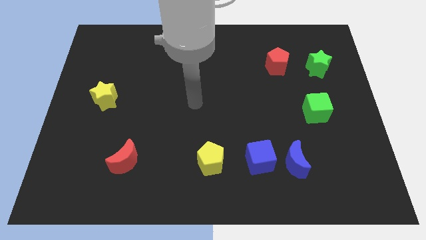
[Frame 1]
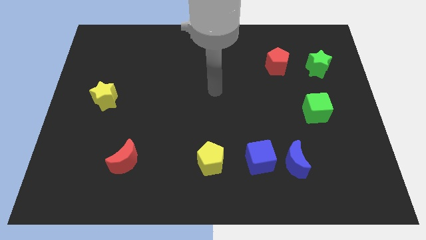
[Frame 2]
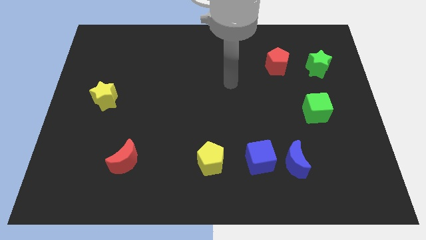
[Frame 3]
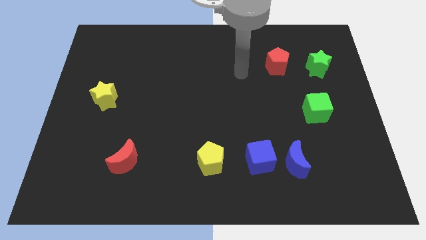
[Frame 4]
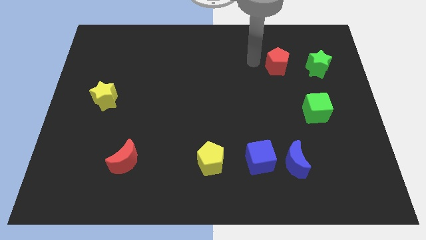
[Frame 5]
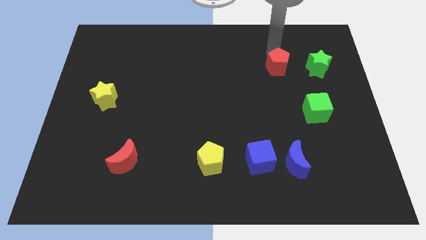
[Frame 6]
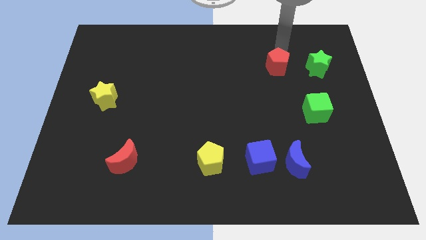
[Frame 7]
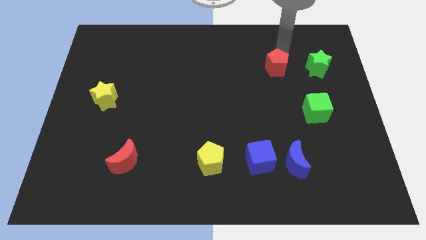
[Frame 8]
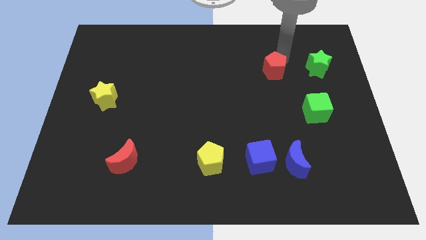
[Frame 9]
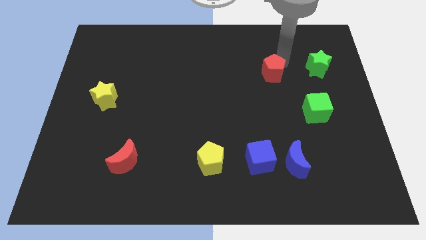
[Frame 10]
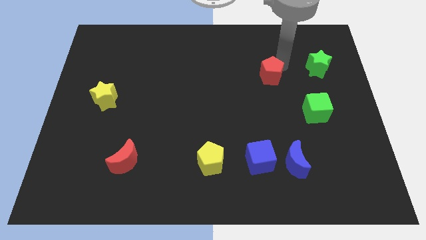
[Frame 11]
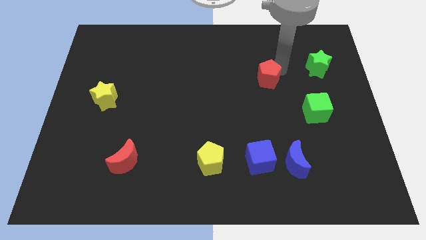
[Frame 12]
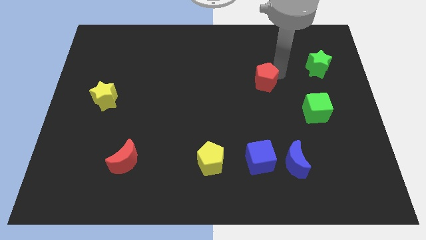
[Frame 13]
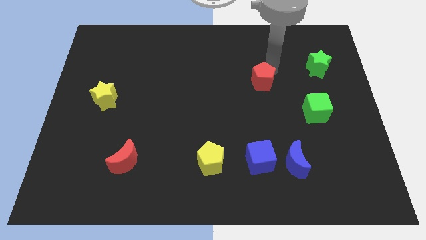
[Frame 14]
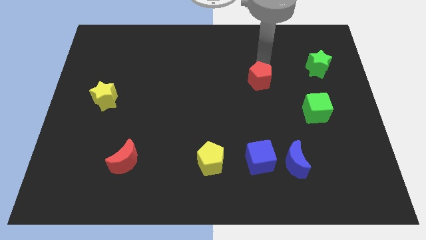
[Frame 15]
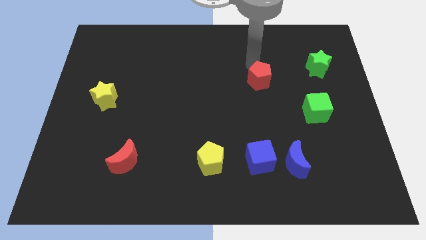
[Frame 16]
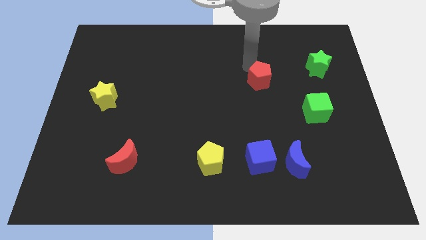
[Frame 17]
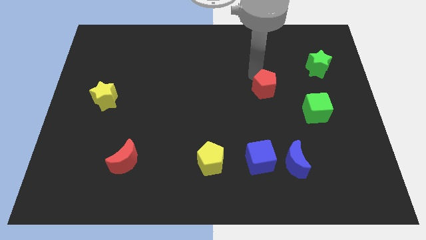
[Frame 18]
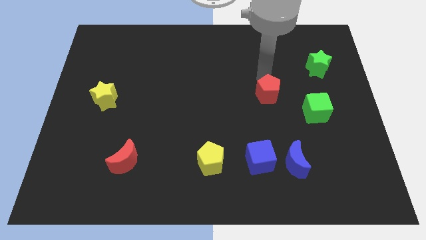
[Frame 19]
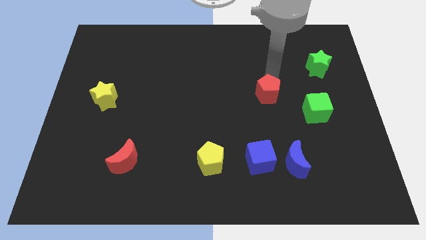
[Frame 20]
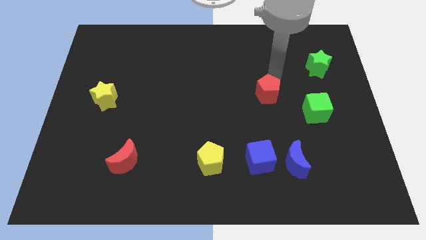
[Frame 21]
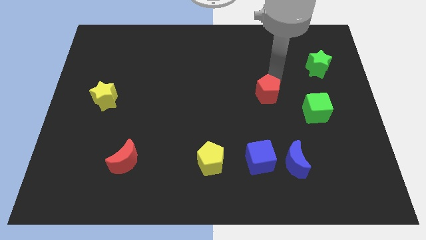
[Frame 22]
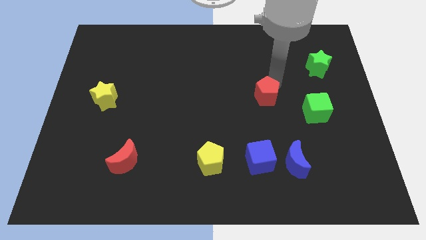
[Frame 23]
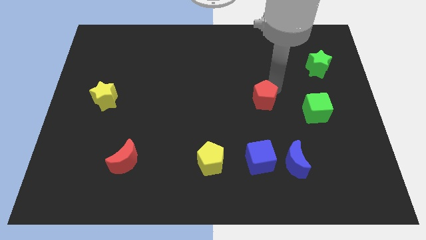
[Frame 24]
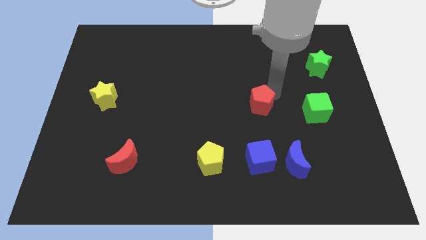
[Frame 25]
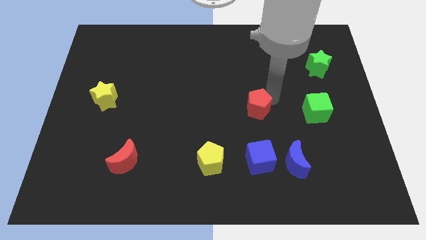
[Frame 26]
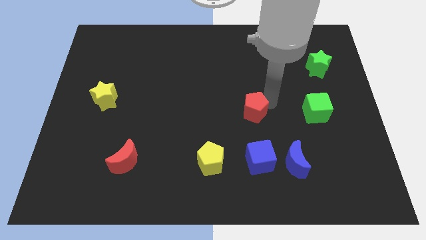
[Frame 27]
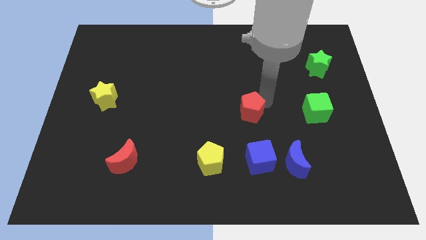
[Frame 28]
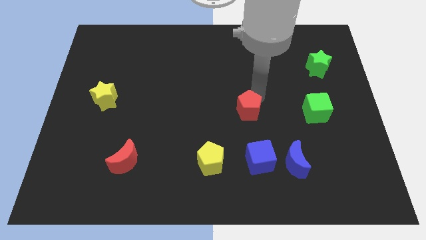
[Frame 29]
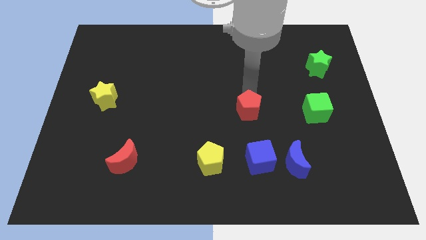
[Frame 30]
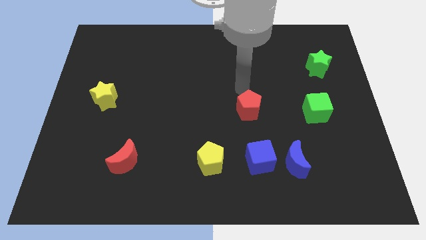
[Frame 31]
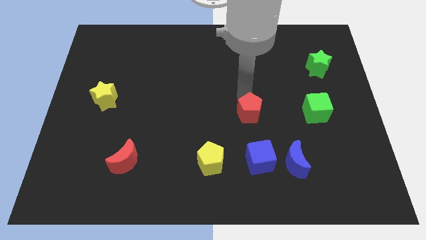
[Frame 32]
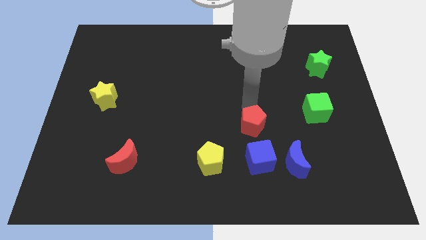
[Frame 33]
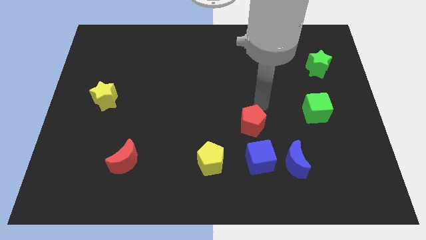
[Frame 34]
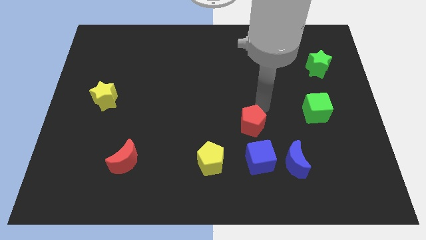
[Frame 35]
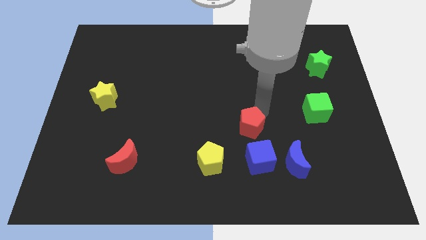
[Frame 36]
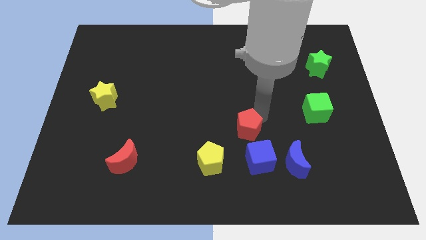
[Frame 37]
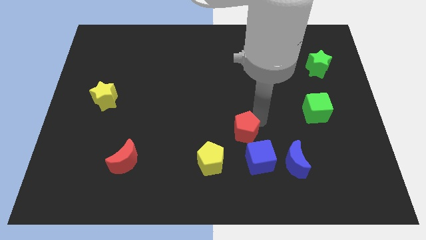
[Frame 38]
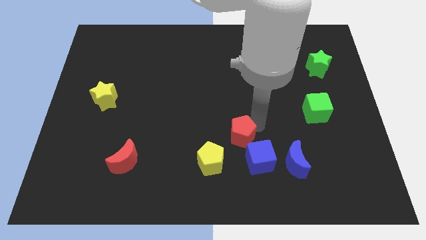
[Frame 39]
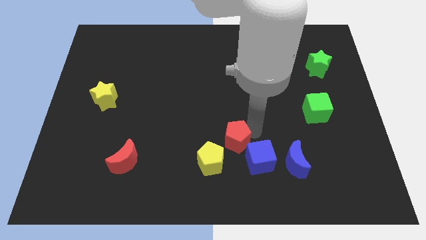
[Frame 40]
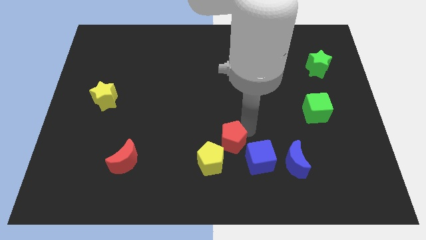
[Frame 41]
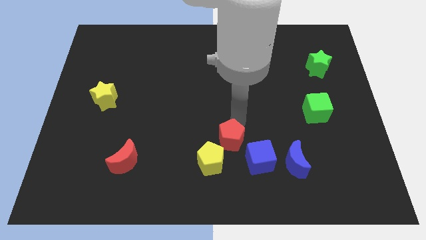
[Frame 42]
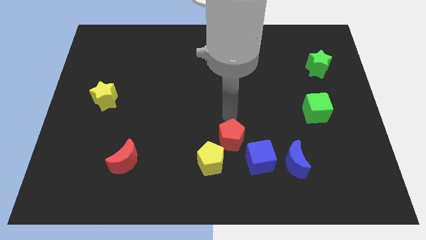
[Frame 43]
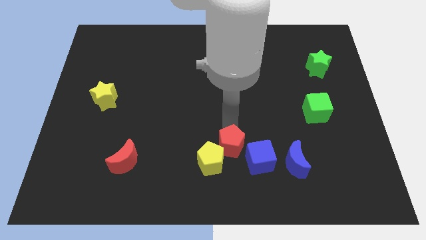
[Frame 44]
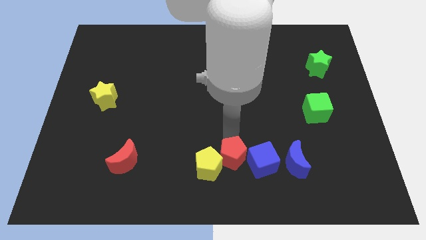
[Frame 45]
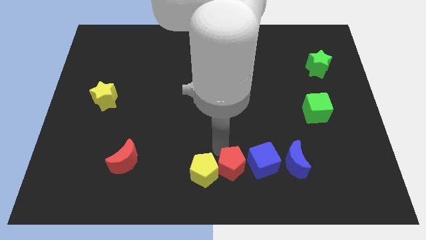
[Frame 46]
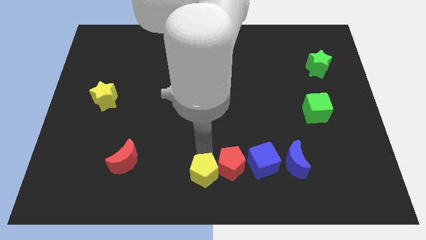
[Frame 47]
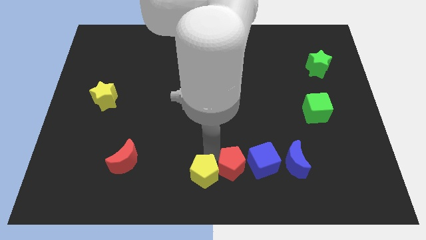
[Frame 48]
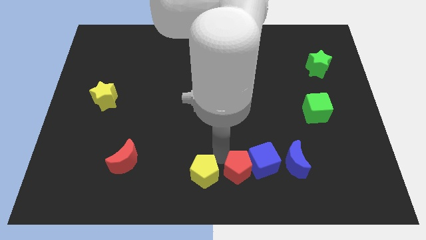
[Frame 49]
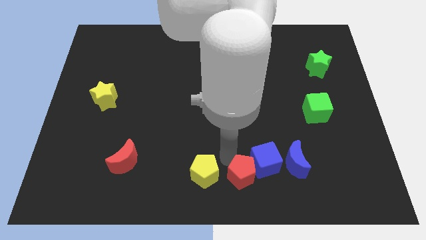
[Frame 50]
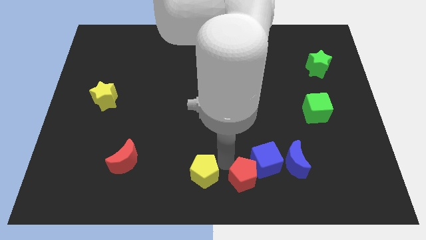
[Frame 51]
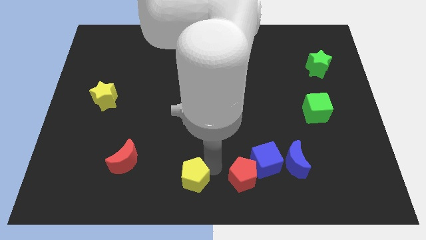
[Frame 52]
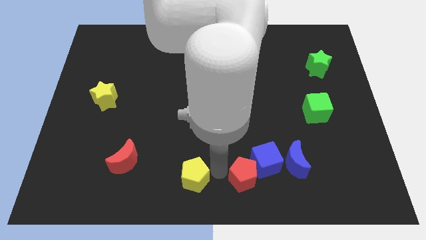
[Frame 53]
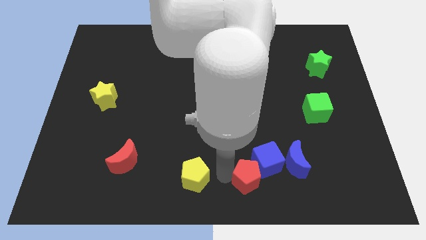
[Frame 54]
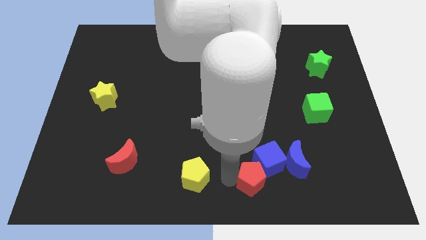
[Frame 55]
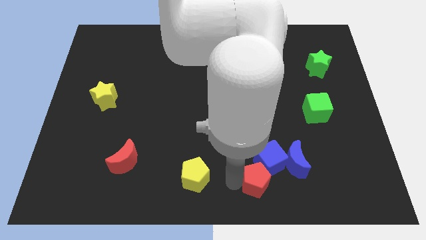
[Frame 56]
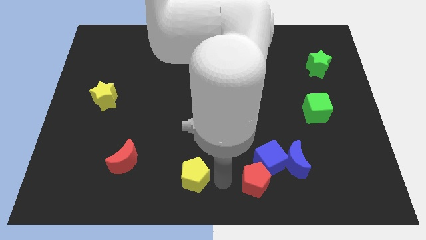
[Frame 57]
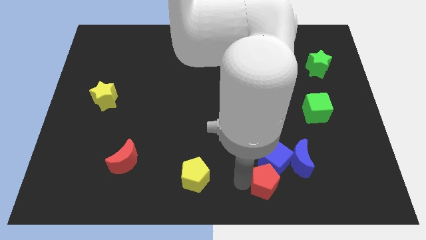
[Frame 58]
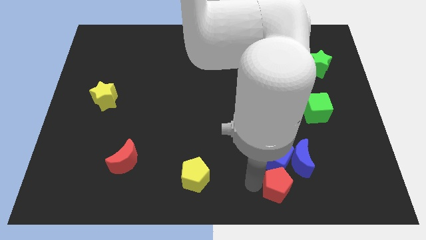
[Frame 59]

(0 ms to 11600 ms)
put the red pentagon to the bottom right of the blue cube

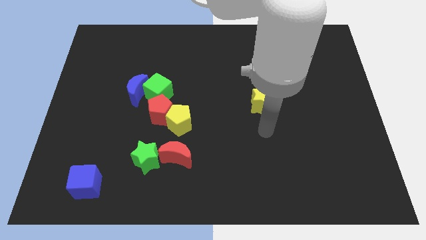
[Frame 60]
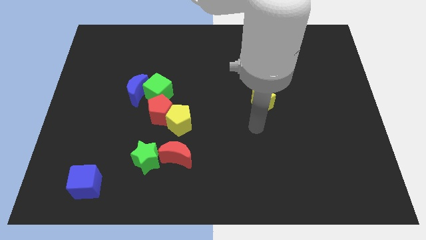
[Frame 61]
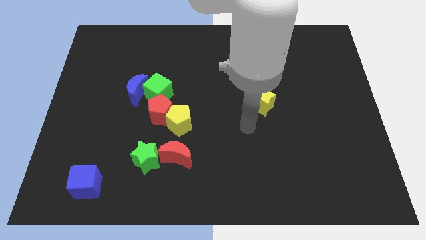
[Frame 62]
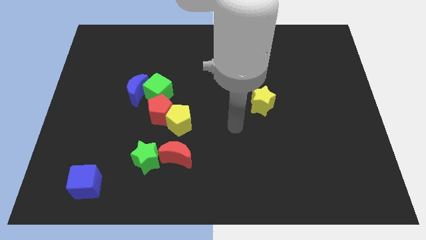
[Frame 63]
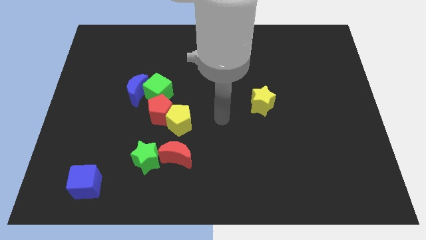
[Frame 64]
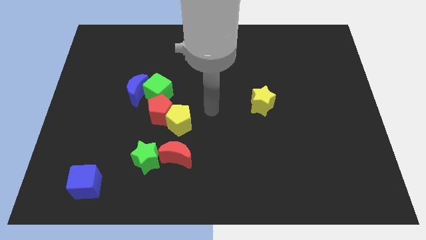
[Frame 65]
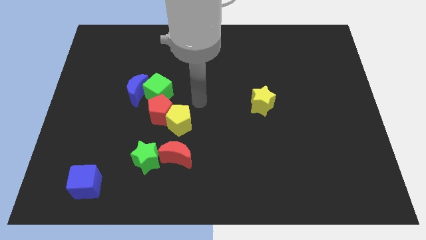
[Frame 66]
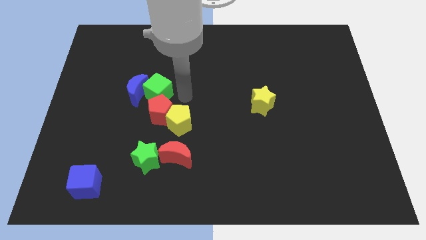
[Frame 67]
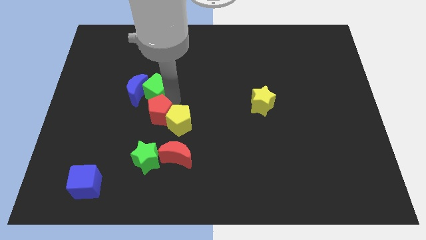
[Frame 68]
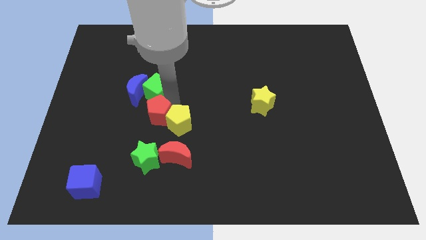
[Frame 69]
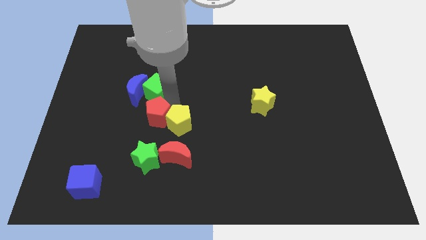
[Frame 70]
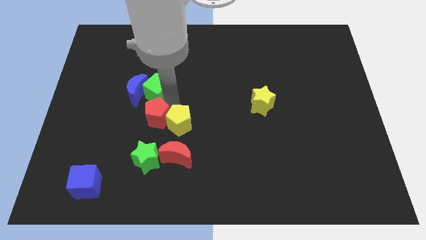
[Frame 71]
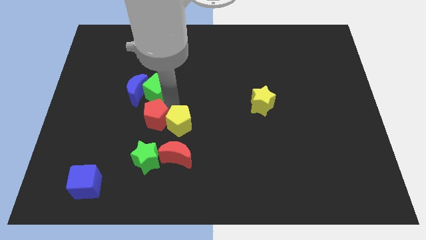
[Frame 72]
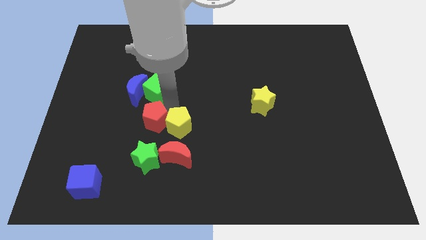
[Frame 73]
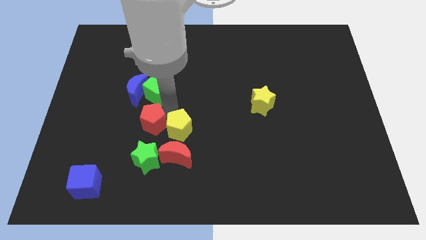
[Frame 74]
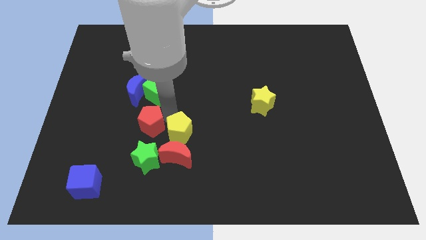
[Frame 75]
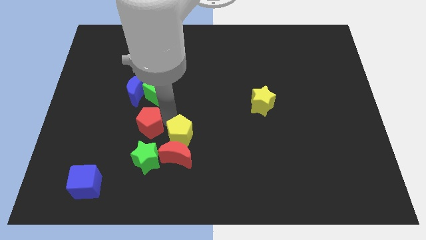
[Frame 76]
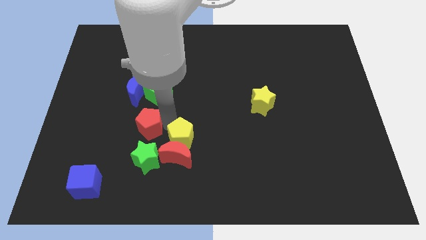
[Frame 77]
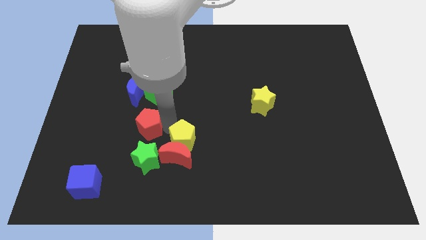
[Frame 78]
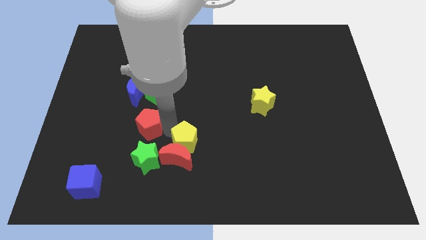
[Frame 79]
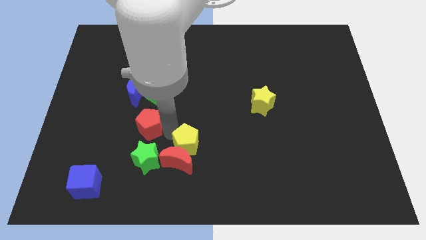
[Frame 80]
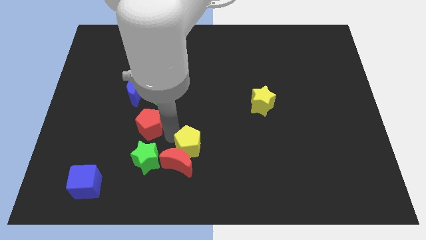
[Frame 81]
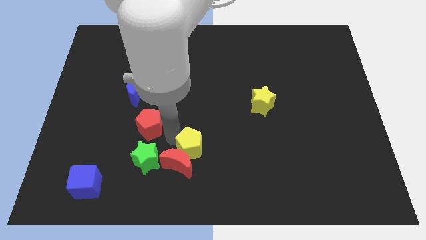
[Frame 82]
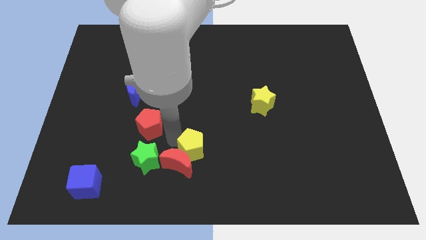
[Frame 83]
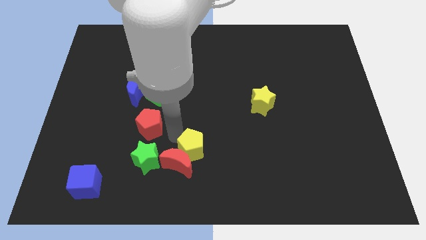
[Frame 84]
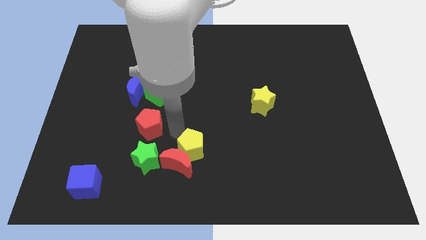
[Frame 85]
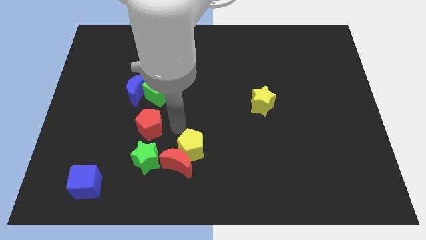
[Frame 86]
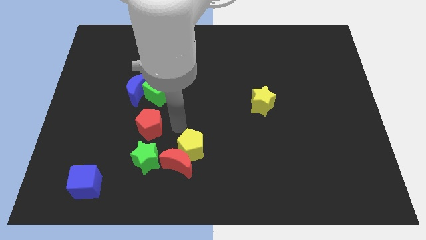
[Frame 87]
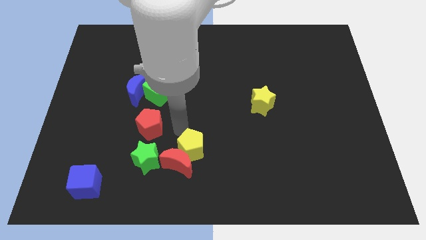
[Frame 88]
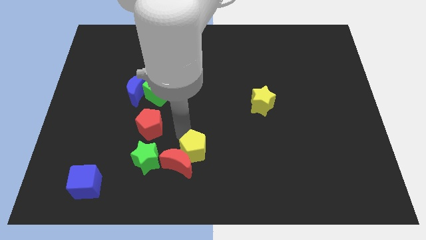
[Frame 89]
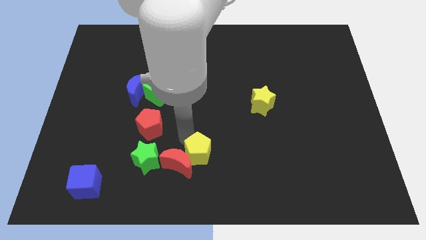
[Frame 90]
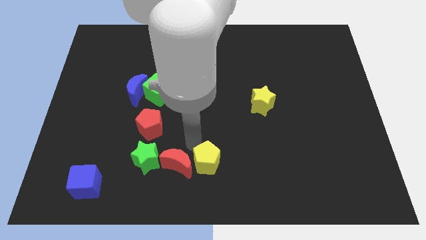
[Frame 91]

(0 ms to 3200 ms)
push the yellow pentagon diagonally down and to the right of the red moon
